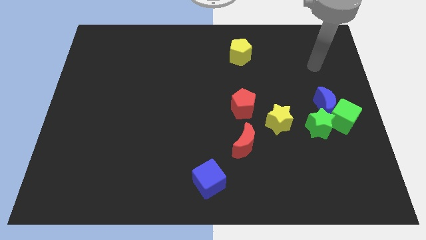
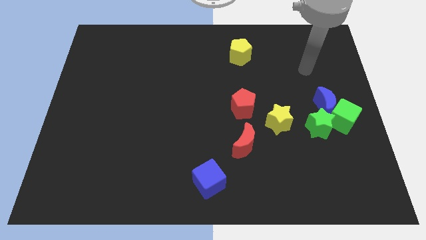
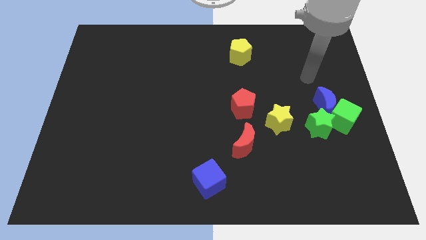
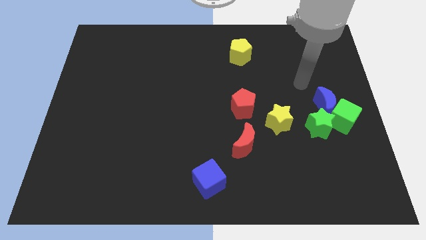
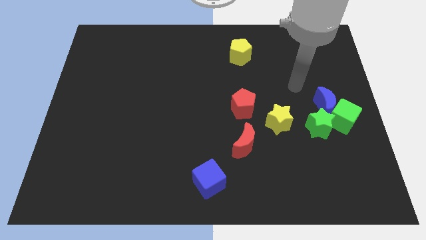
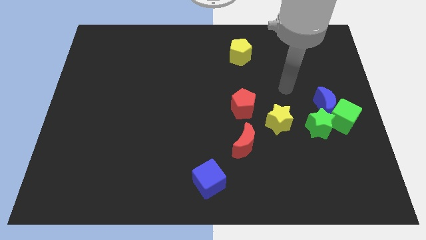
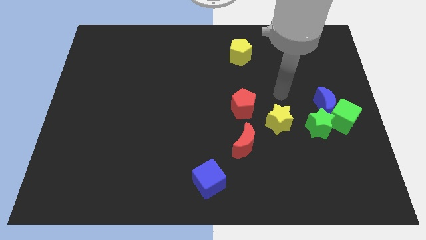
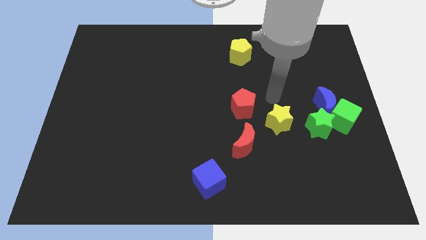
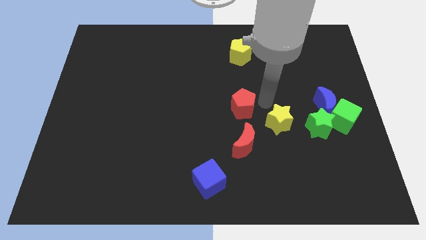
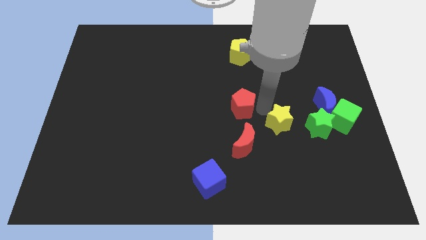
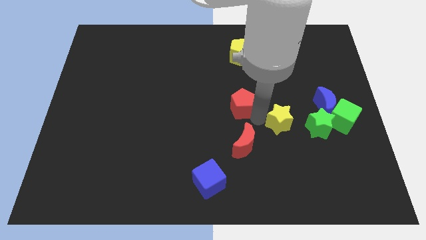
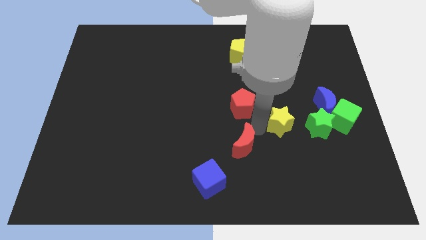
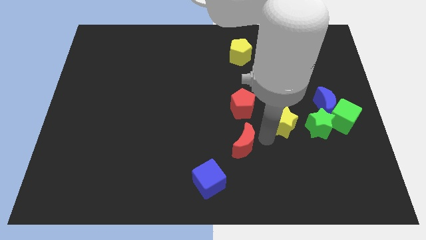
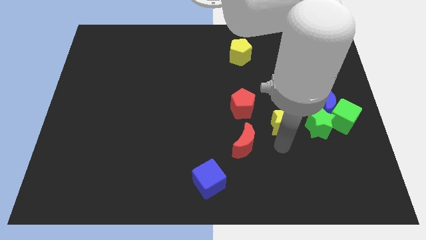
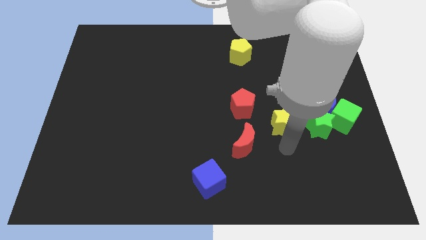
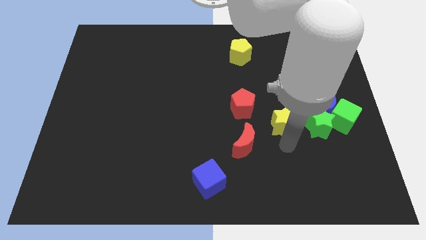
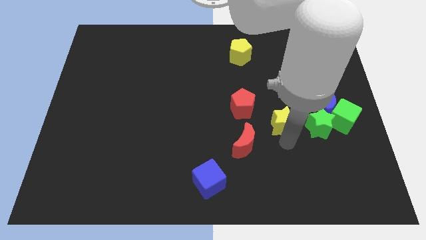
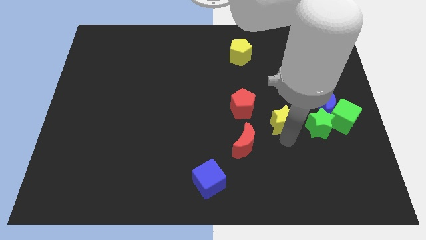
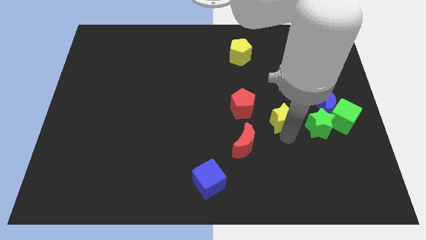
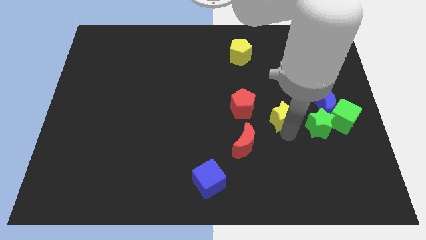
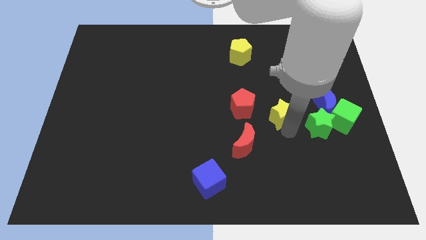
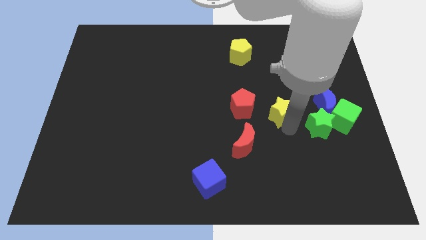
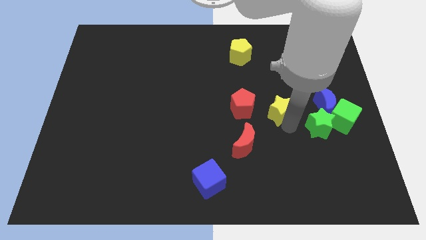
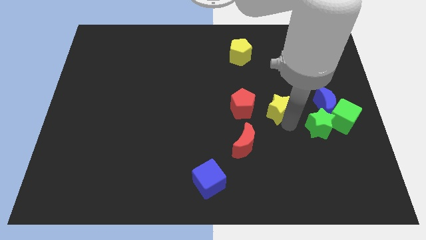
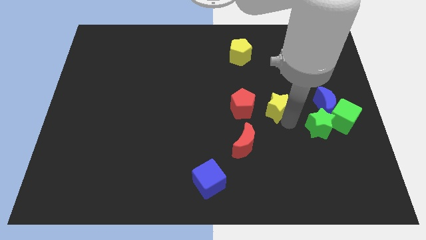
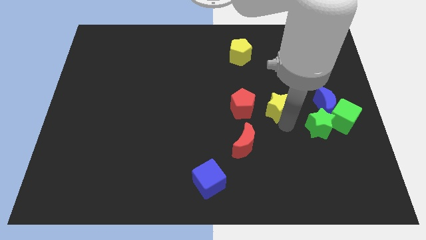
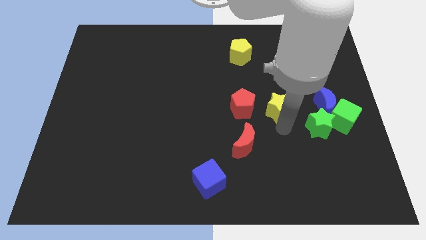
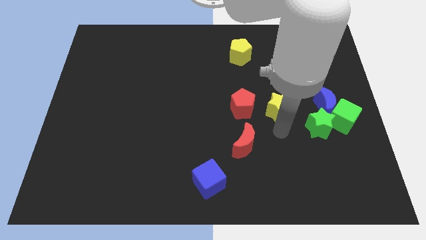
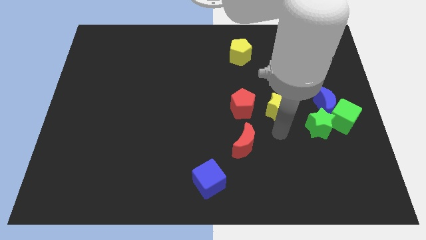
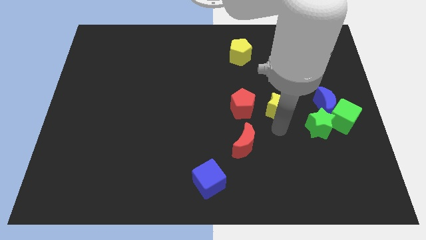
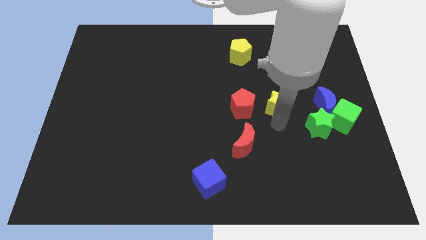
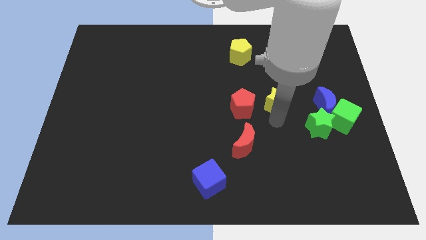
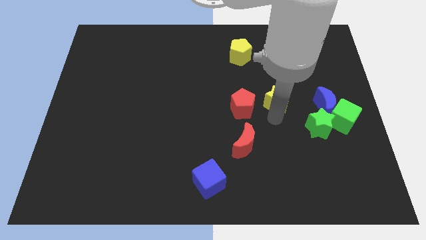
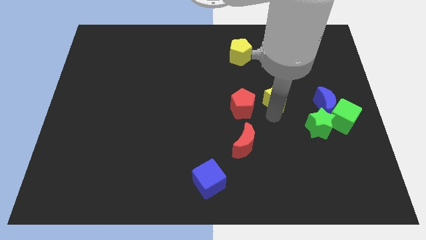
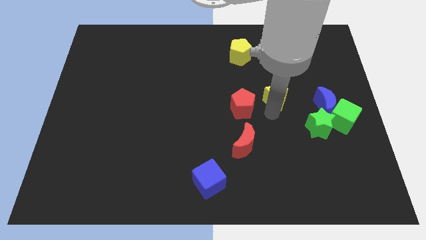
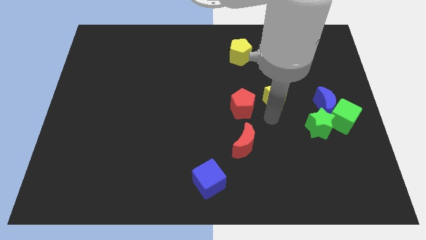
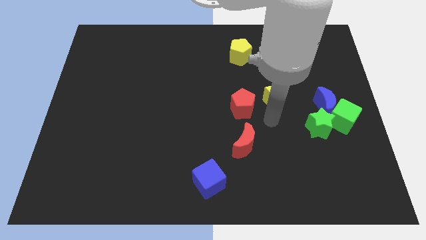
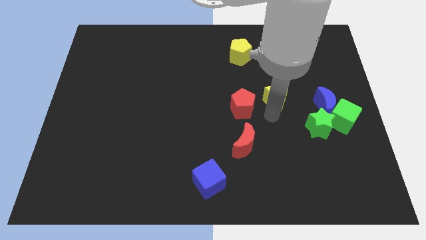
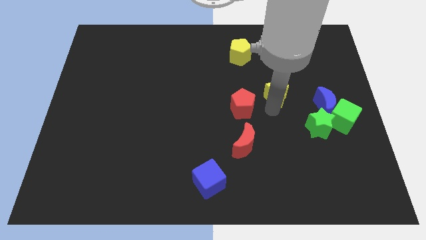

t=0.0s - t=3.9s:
slide the yellow star a bit upwards

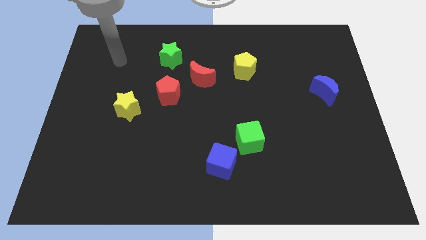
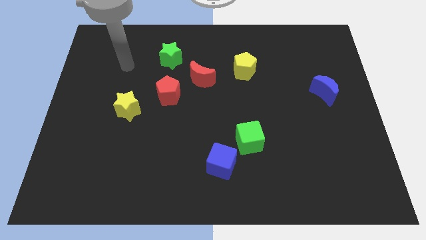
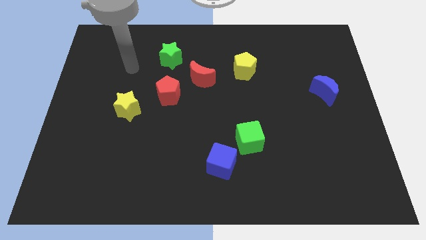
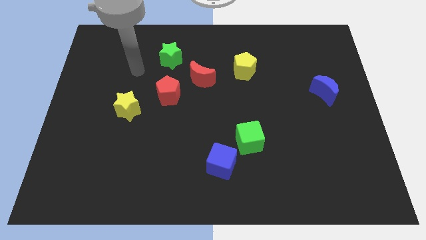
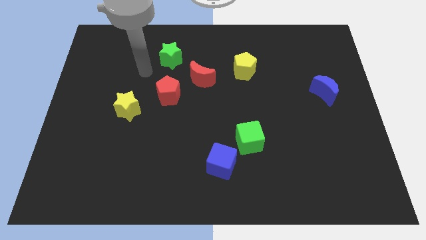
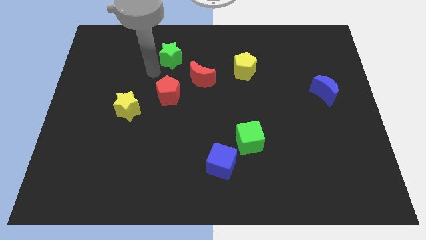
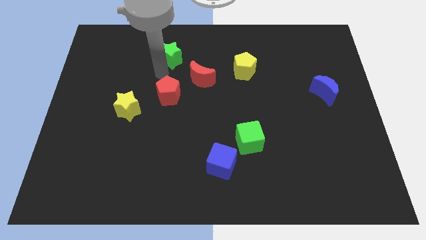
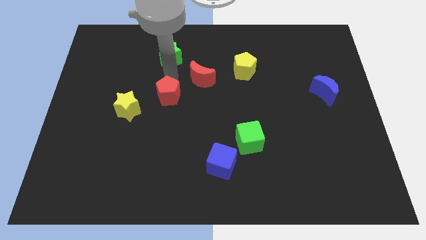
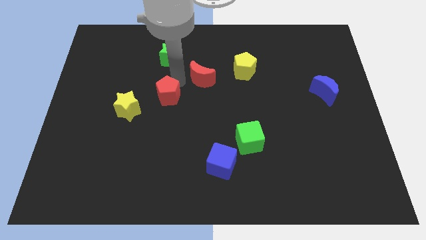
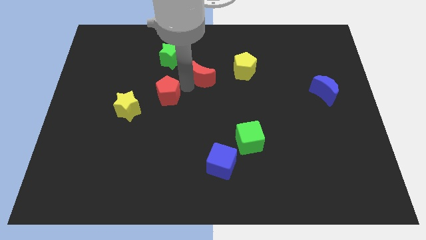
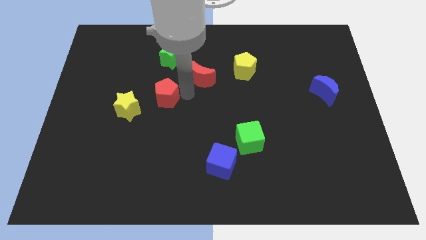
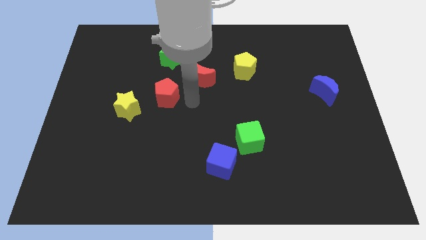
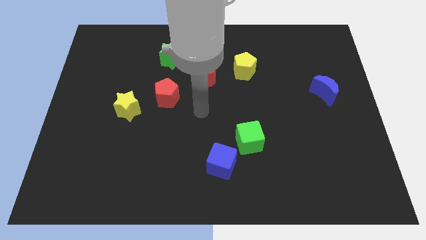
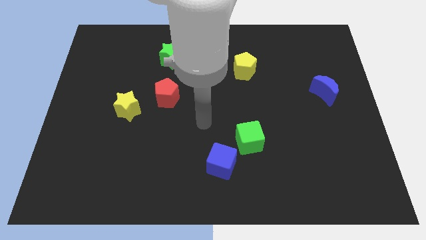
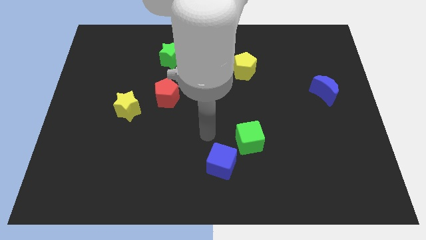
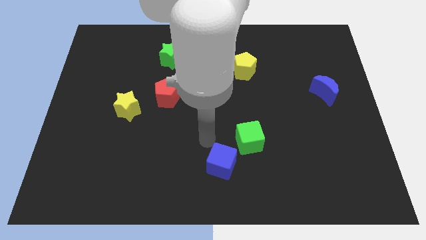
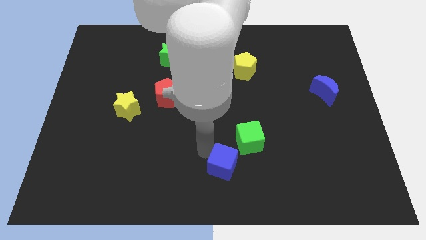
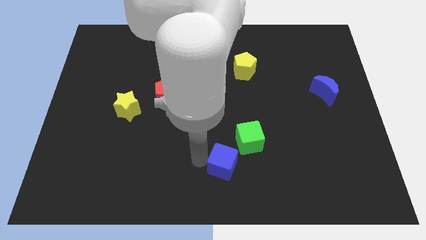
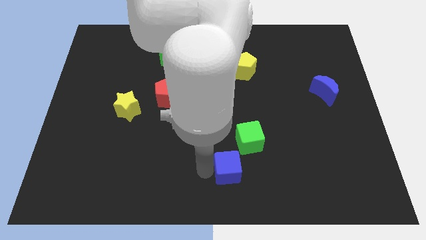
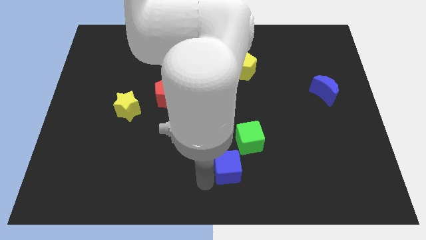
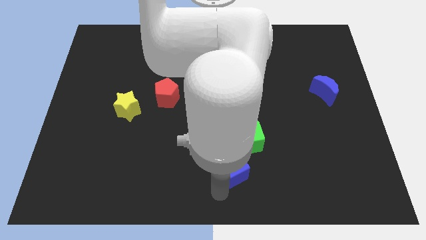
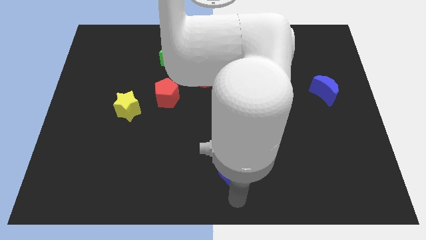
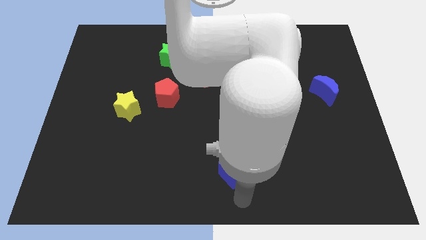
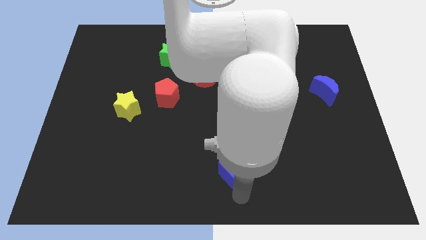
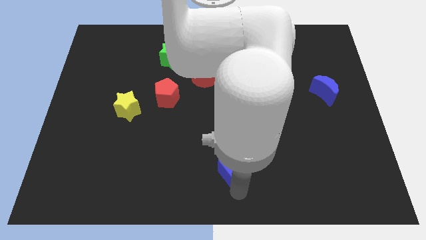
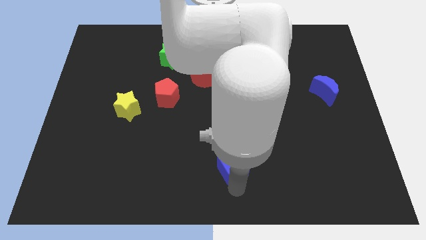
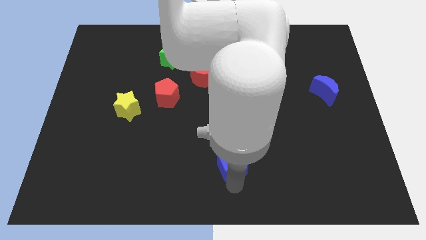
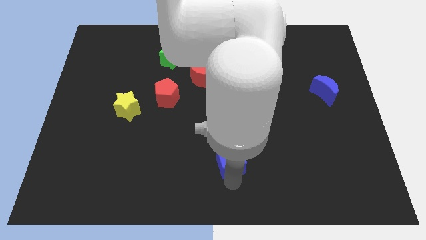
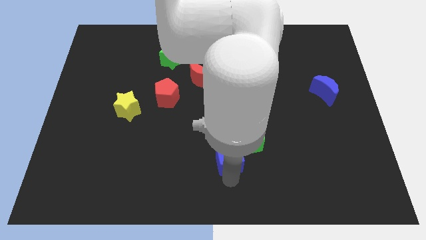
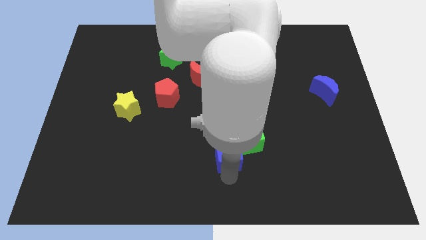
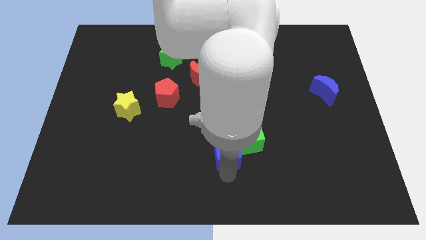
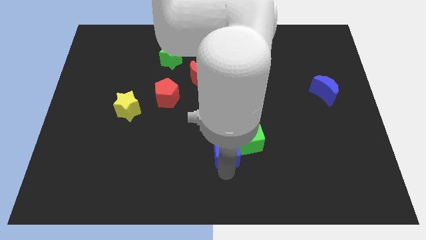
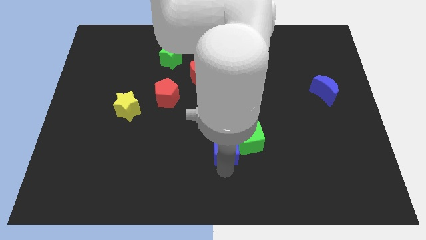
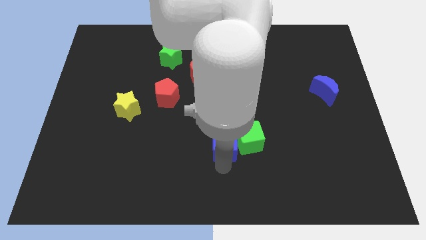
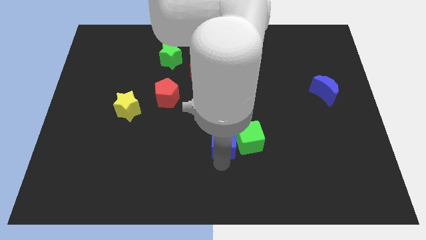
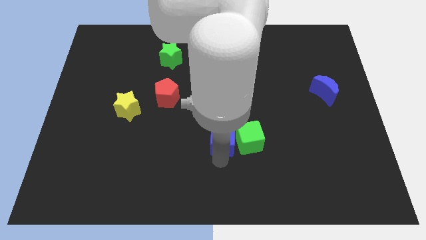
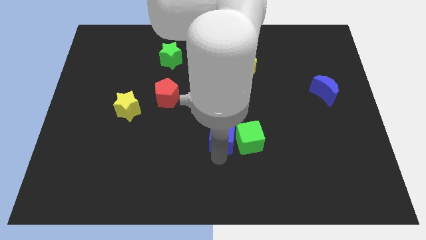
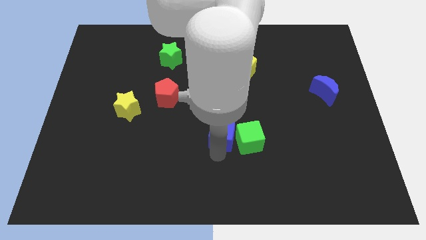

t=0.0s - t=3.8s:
move the blue cube up a bit

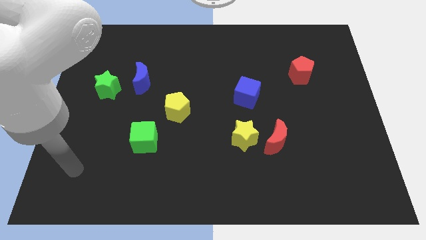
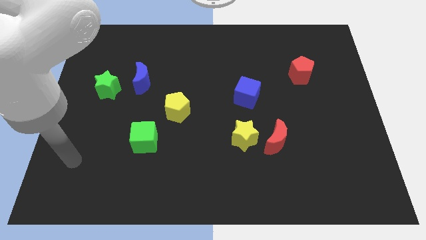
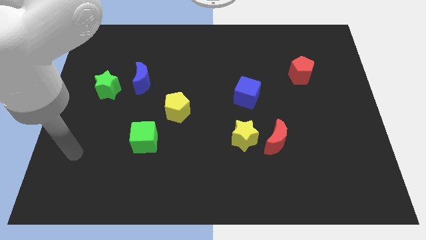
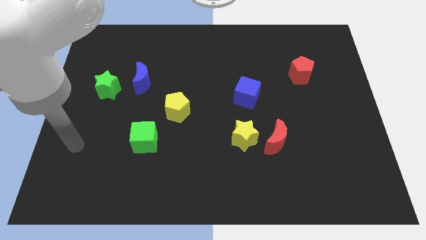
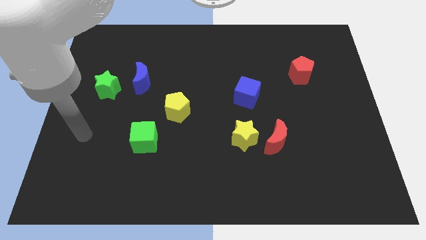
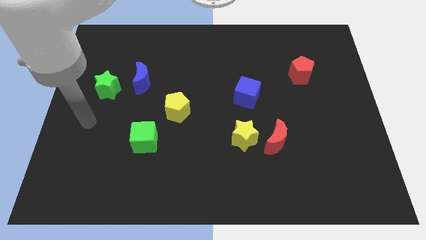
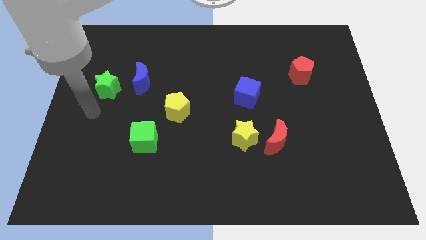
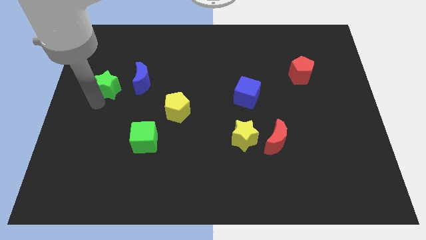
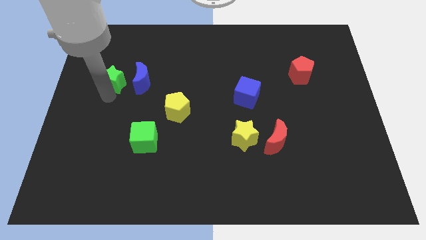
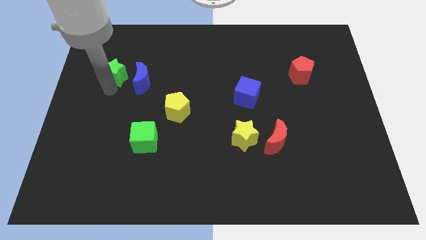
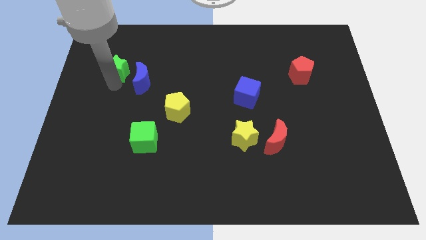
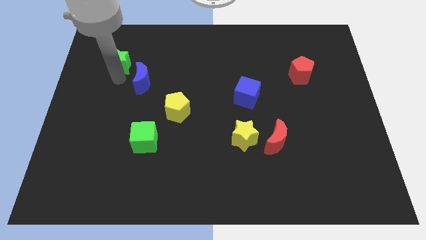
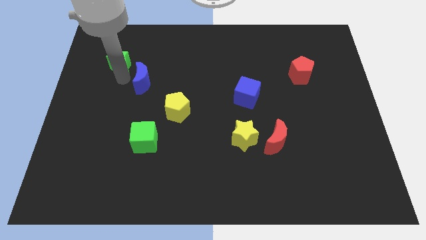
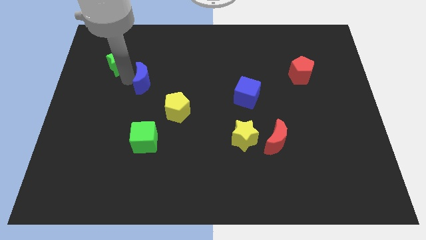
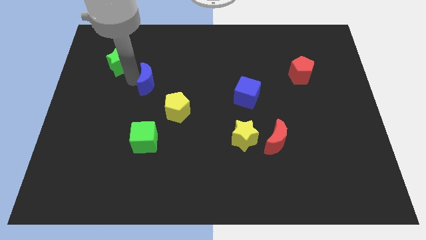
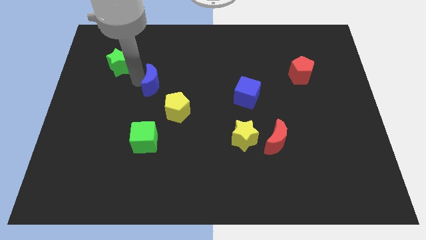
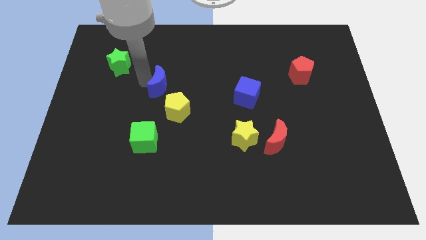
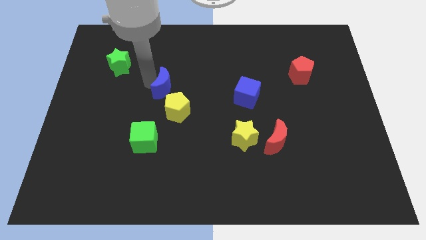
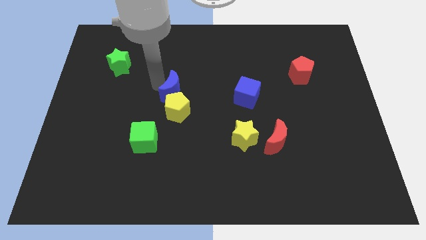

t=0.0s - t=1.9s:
push the blue moon downwards and to the right somewhat
